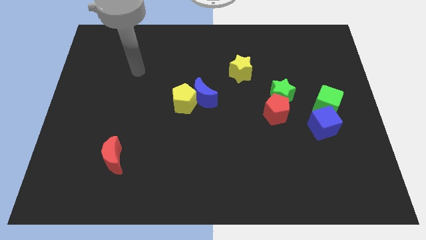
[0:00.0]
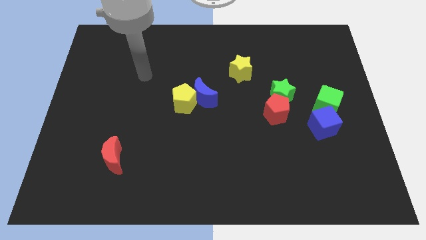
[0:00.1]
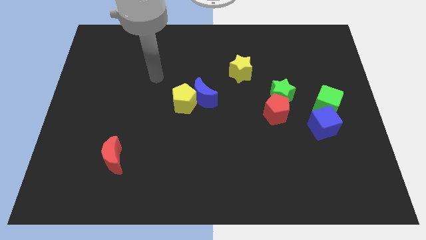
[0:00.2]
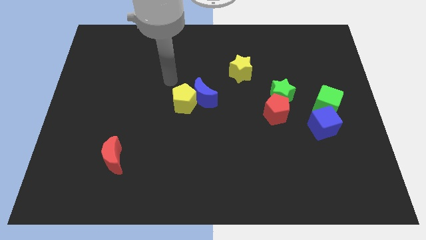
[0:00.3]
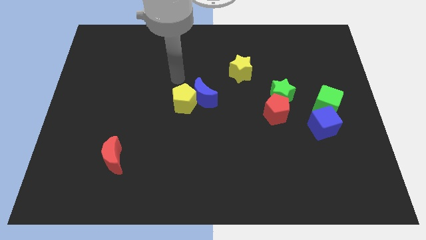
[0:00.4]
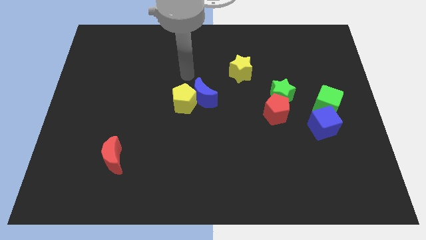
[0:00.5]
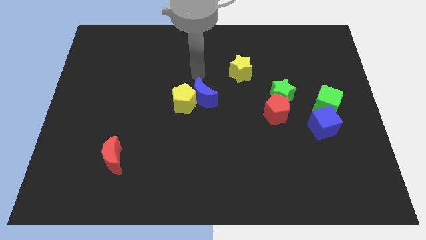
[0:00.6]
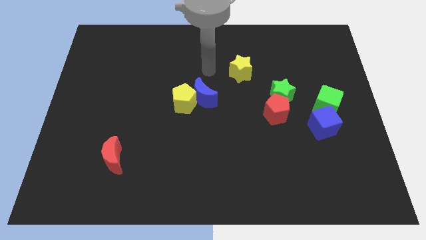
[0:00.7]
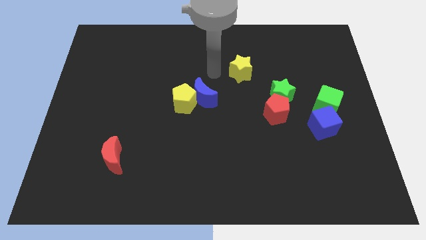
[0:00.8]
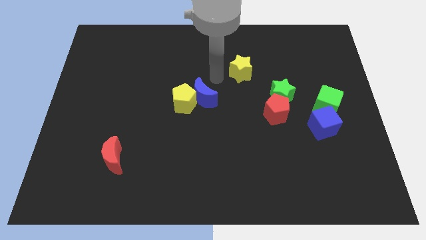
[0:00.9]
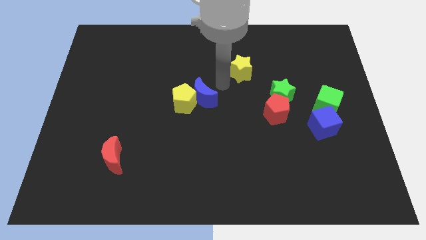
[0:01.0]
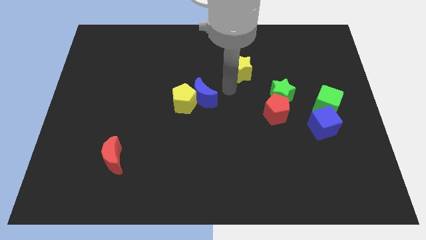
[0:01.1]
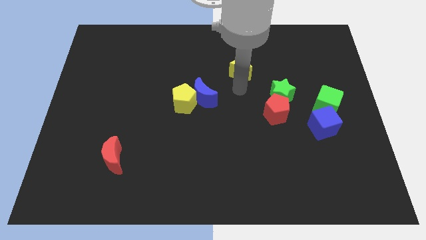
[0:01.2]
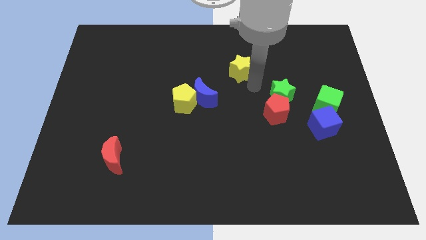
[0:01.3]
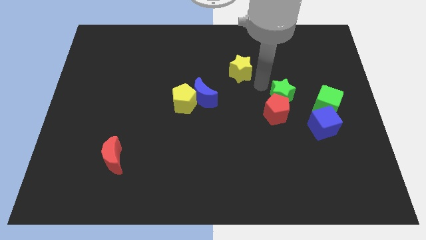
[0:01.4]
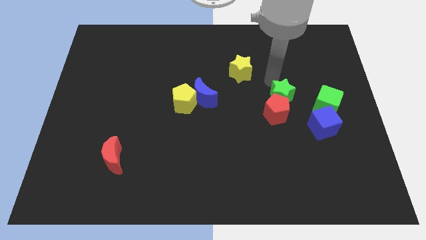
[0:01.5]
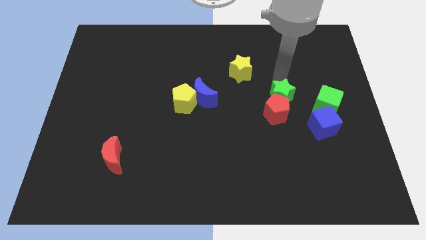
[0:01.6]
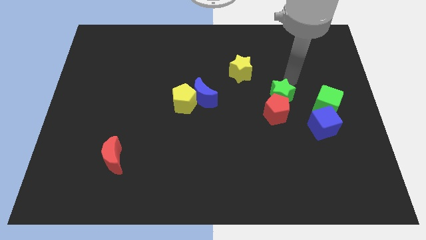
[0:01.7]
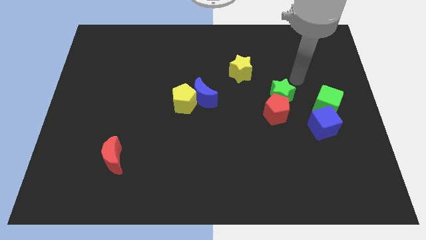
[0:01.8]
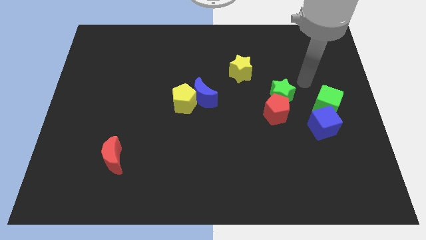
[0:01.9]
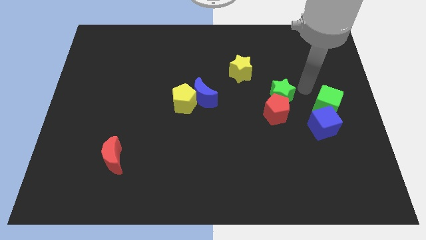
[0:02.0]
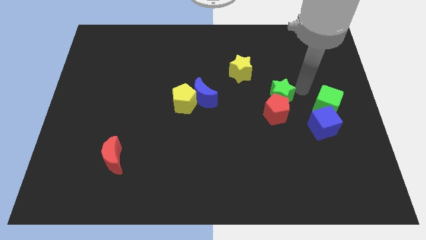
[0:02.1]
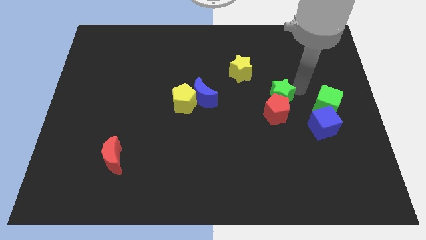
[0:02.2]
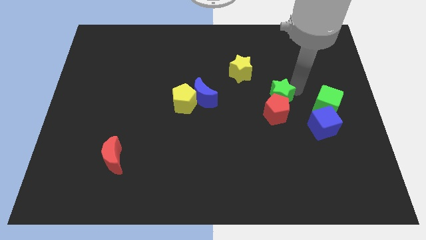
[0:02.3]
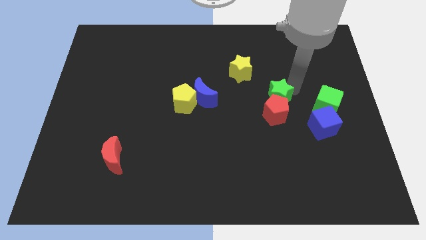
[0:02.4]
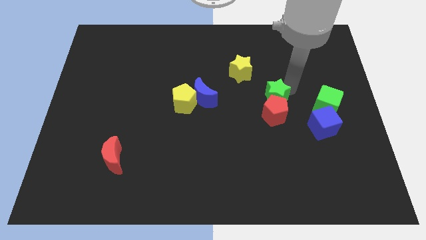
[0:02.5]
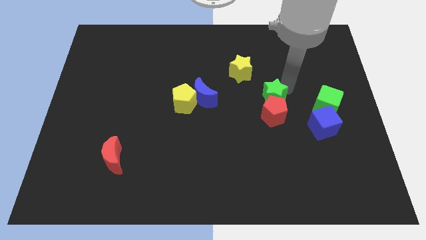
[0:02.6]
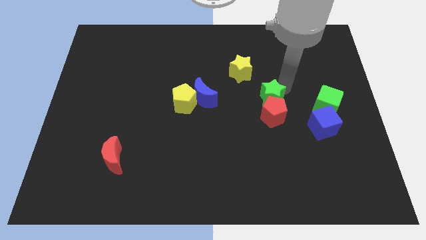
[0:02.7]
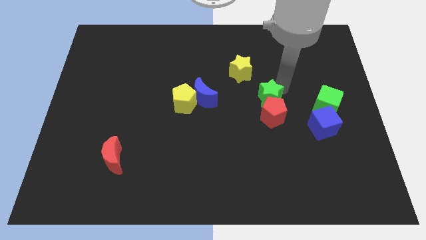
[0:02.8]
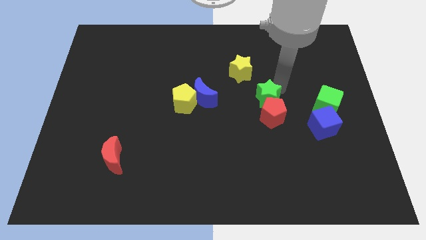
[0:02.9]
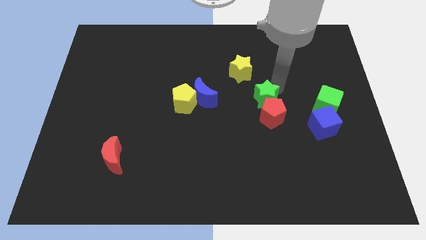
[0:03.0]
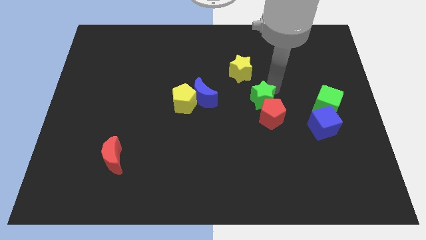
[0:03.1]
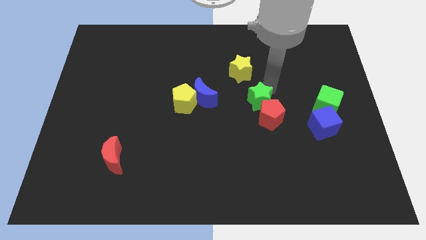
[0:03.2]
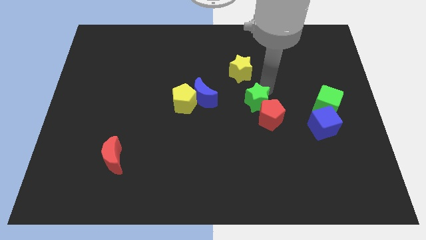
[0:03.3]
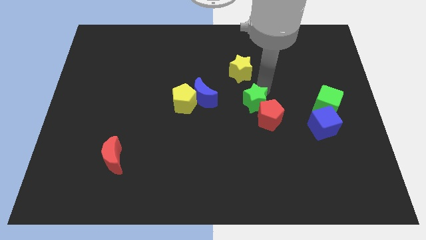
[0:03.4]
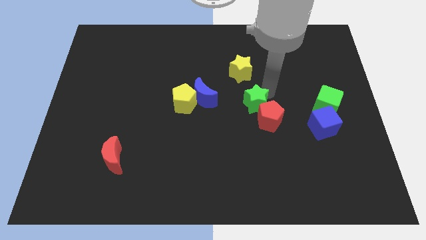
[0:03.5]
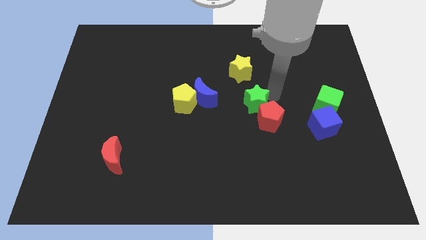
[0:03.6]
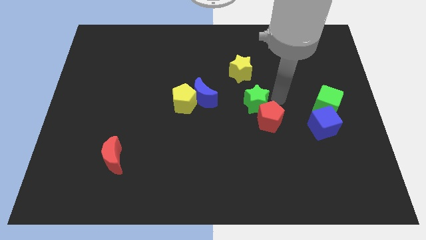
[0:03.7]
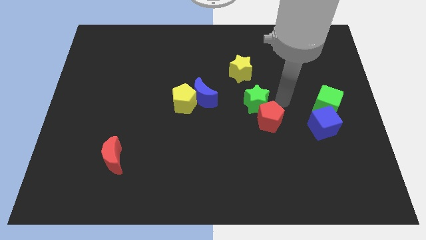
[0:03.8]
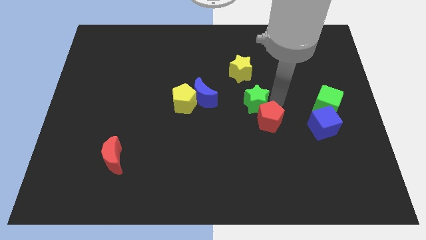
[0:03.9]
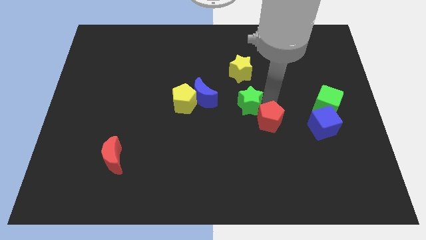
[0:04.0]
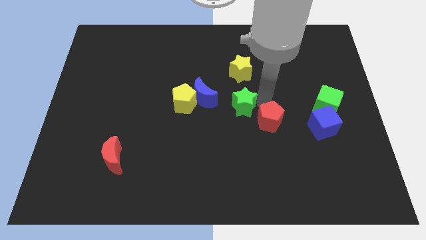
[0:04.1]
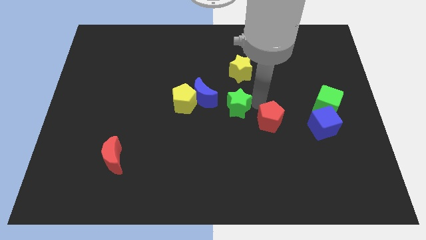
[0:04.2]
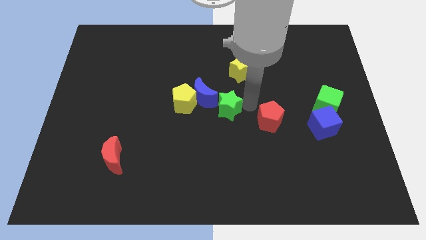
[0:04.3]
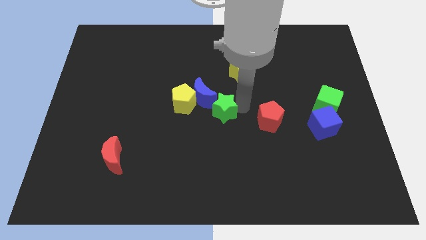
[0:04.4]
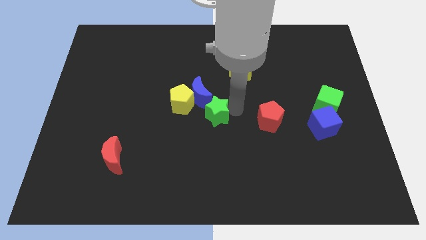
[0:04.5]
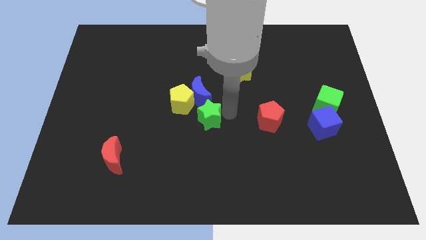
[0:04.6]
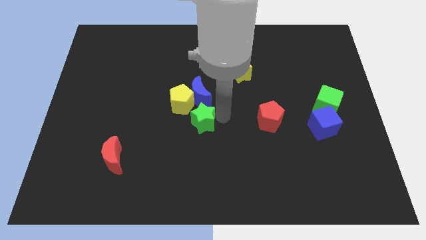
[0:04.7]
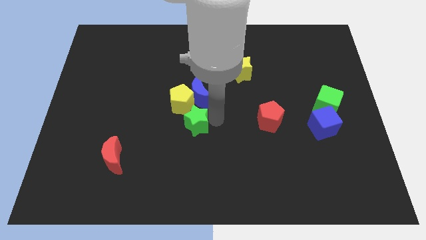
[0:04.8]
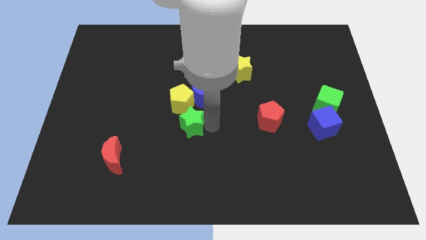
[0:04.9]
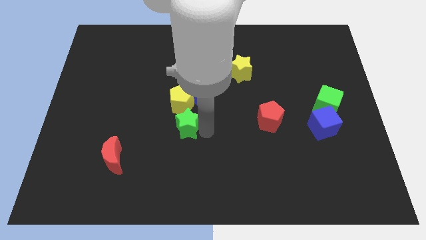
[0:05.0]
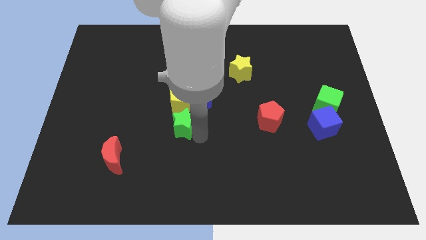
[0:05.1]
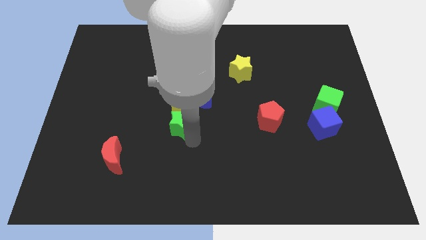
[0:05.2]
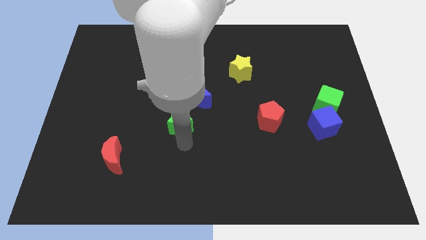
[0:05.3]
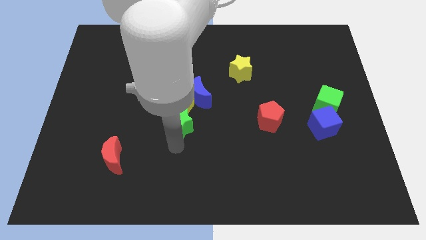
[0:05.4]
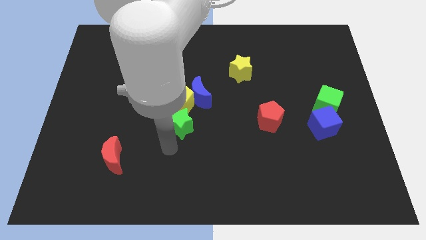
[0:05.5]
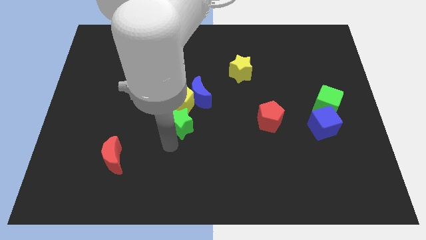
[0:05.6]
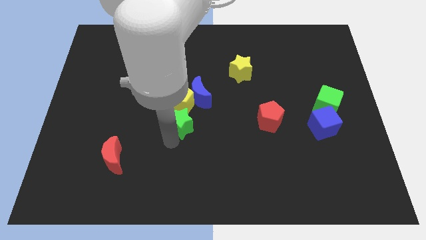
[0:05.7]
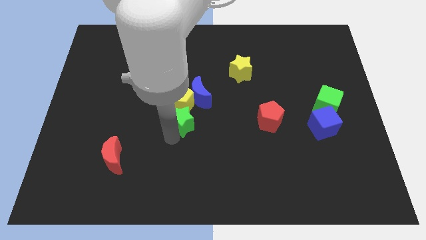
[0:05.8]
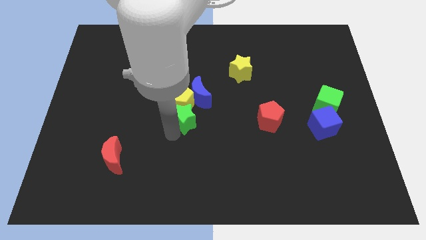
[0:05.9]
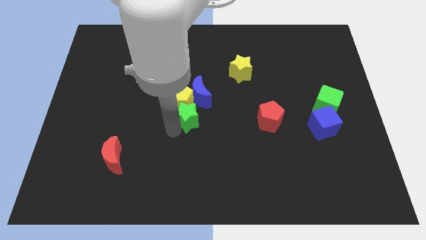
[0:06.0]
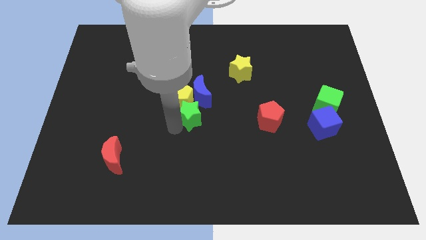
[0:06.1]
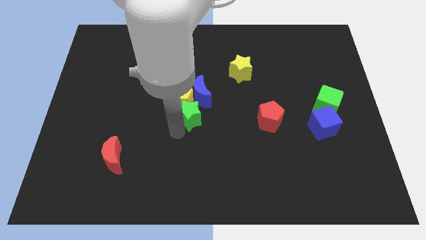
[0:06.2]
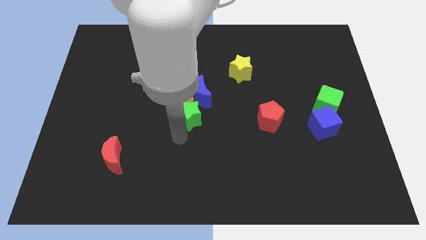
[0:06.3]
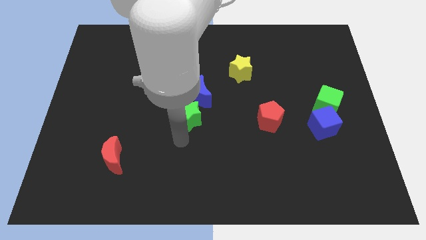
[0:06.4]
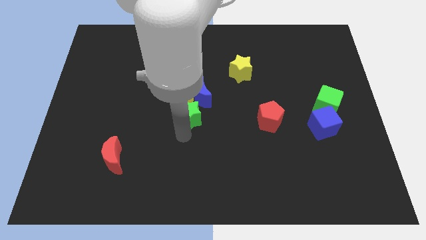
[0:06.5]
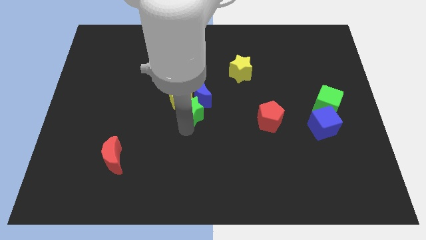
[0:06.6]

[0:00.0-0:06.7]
slide the green star close to the blue moon

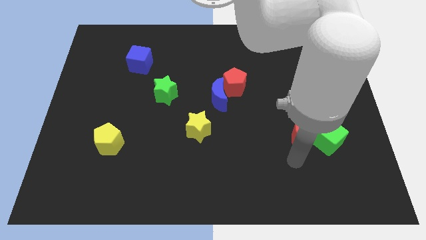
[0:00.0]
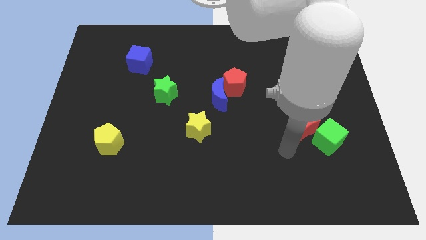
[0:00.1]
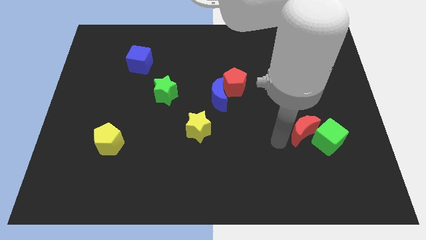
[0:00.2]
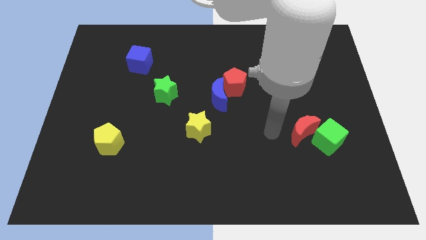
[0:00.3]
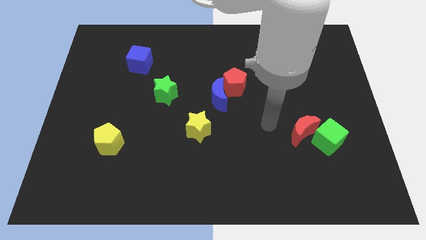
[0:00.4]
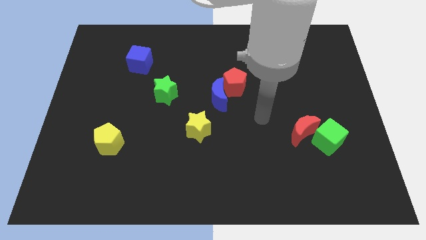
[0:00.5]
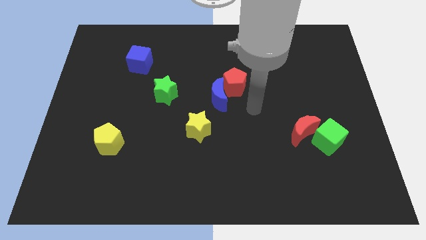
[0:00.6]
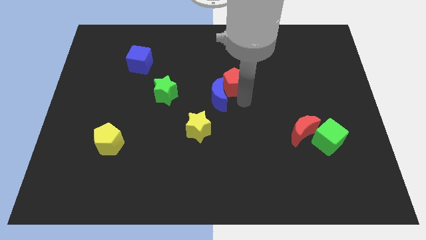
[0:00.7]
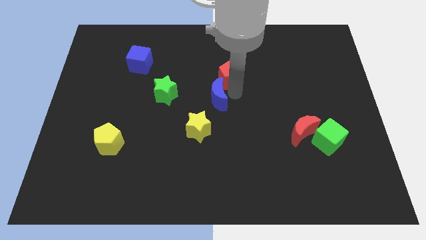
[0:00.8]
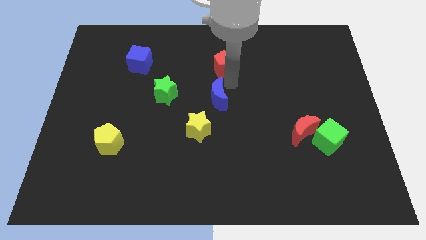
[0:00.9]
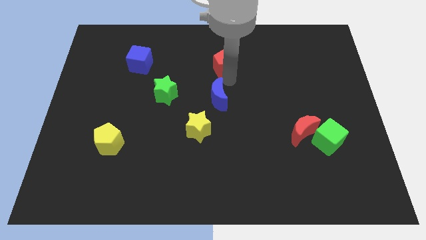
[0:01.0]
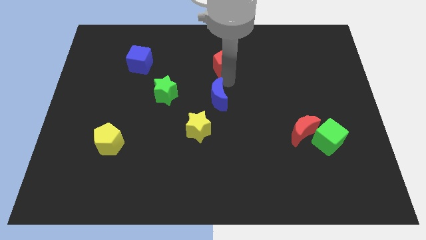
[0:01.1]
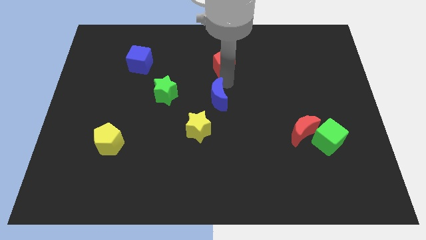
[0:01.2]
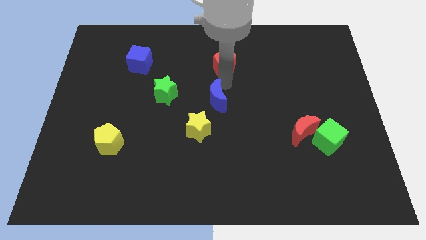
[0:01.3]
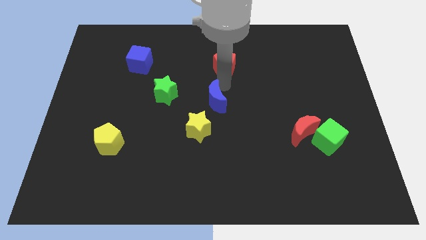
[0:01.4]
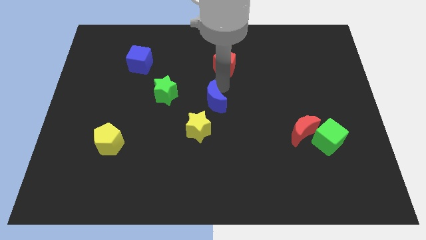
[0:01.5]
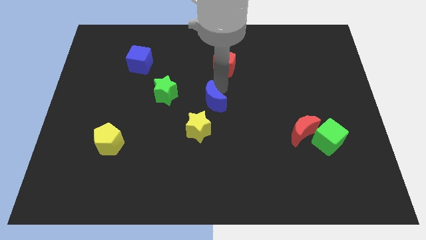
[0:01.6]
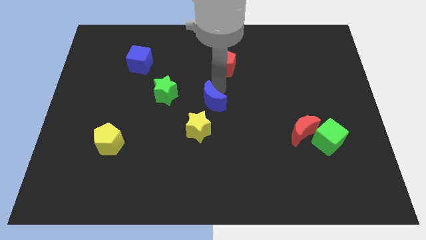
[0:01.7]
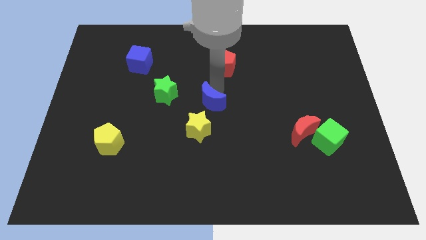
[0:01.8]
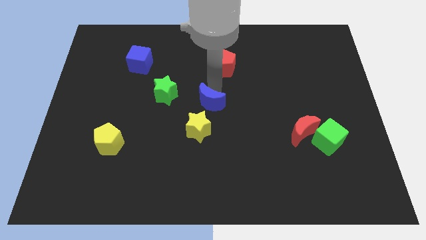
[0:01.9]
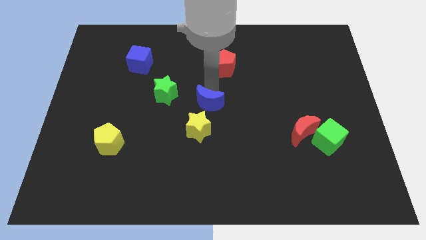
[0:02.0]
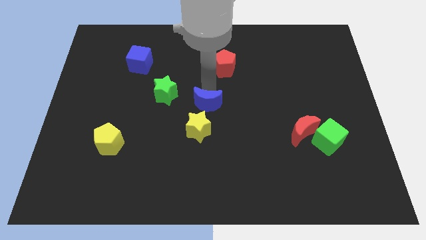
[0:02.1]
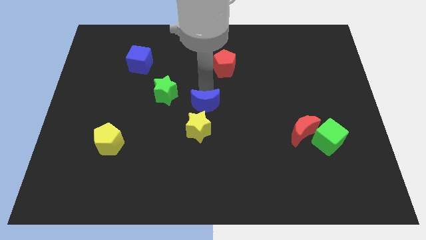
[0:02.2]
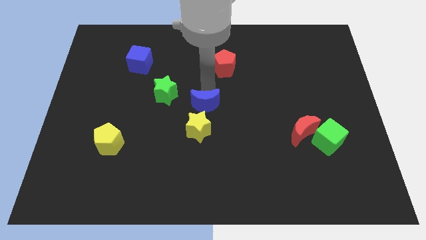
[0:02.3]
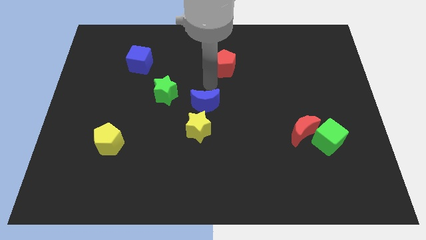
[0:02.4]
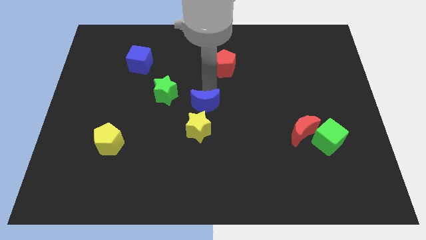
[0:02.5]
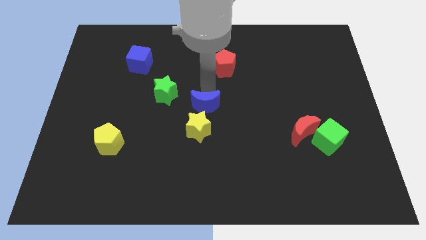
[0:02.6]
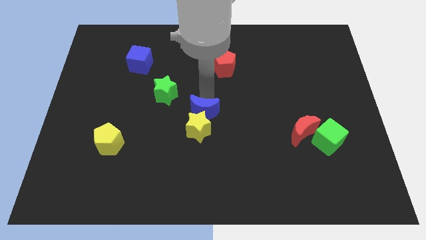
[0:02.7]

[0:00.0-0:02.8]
push the blue moon to the yellow star
